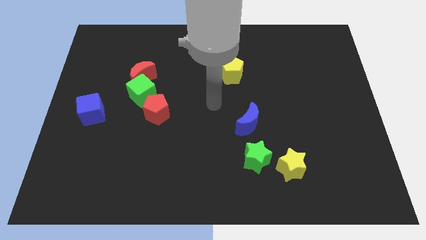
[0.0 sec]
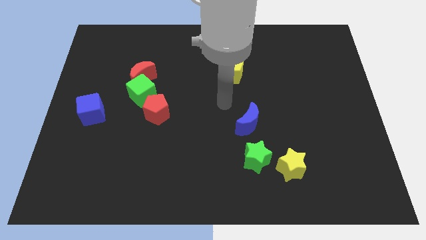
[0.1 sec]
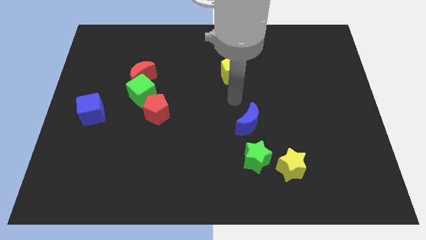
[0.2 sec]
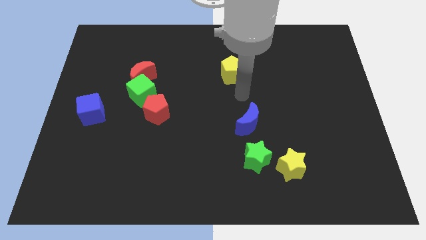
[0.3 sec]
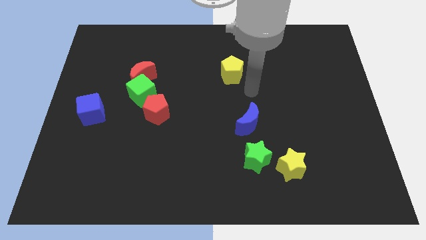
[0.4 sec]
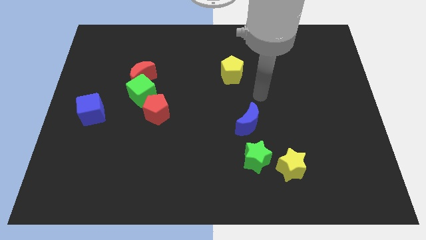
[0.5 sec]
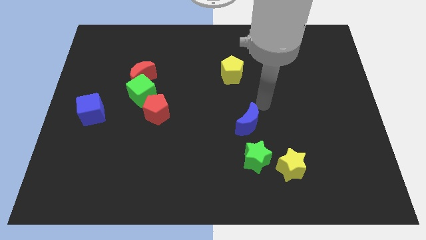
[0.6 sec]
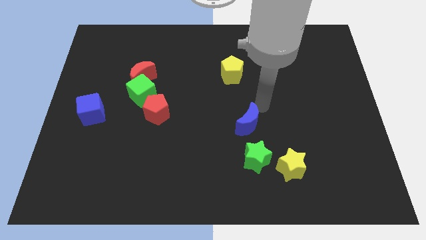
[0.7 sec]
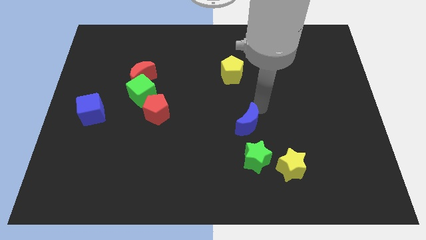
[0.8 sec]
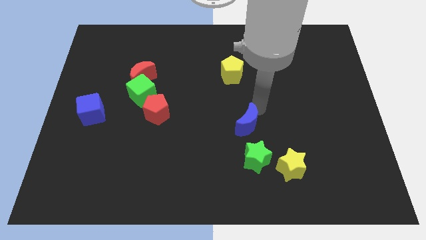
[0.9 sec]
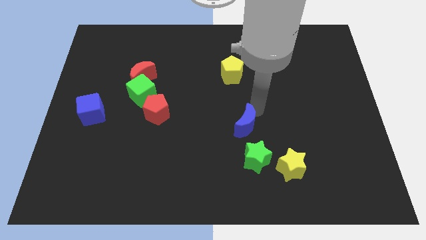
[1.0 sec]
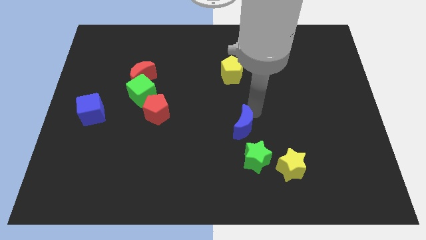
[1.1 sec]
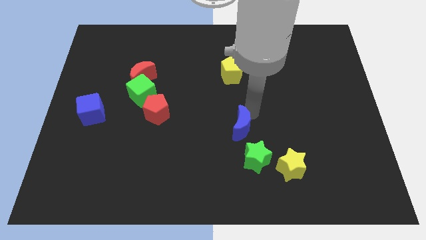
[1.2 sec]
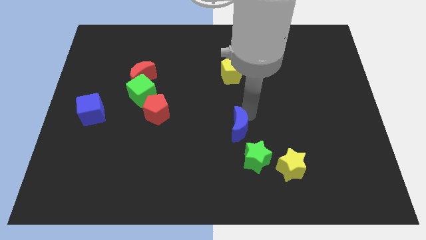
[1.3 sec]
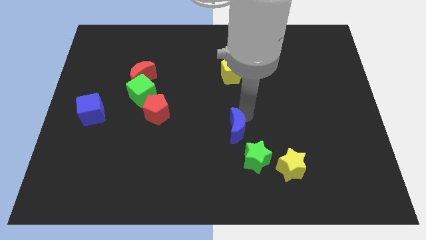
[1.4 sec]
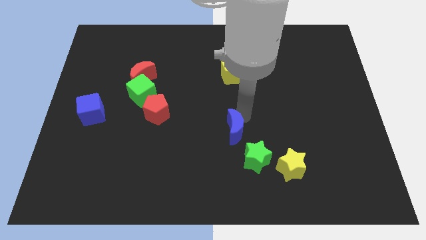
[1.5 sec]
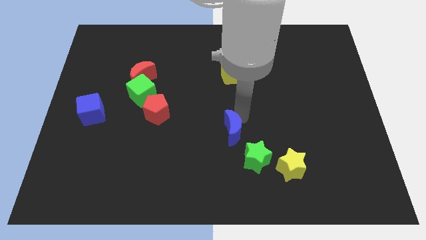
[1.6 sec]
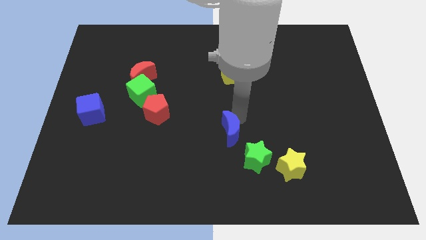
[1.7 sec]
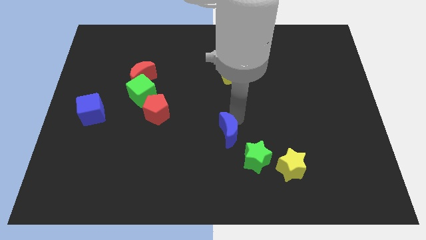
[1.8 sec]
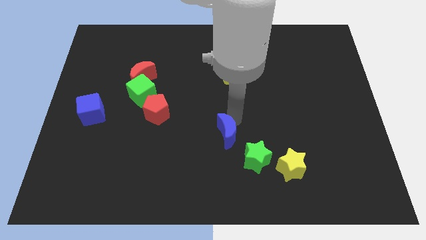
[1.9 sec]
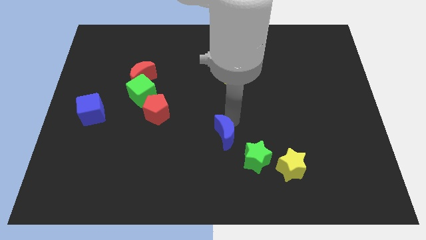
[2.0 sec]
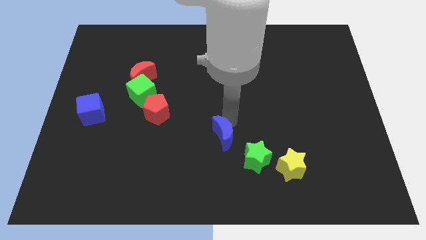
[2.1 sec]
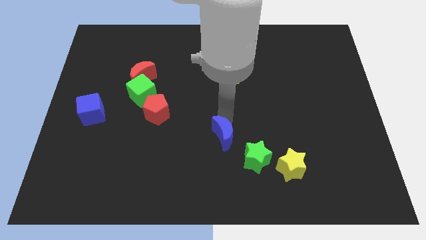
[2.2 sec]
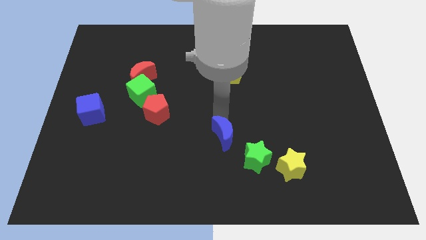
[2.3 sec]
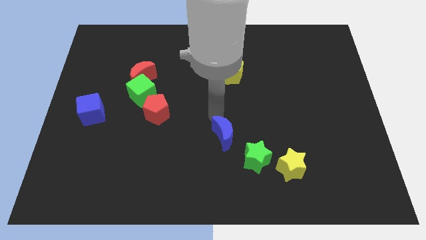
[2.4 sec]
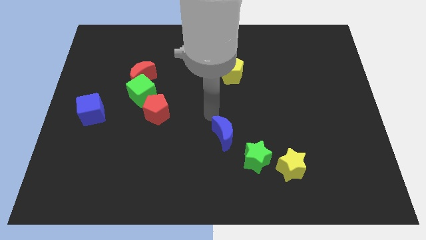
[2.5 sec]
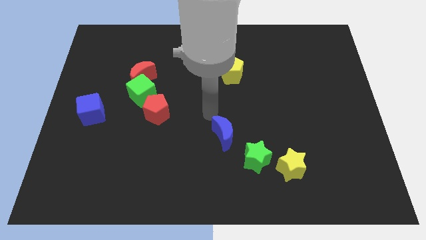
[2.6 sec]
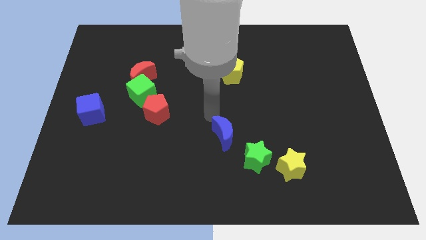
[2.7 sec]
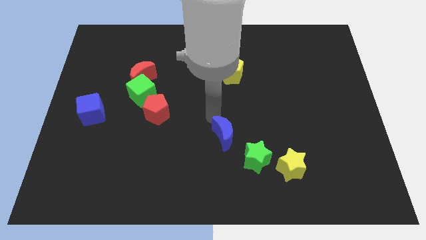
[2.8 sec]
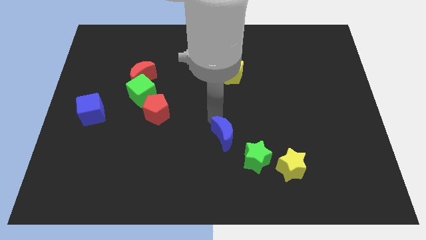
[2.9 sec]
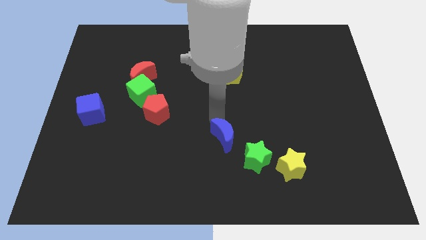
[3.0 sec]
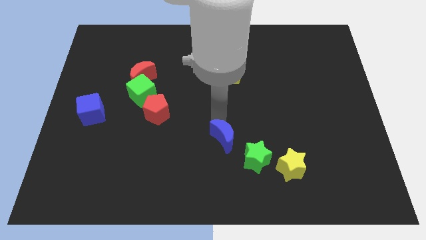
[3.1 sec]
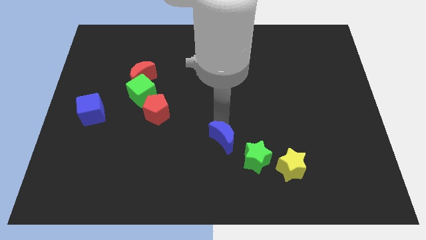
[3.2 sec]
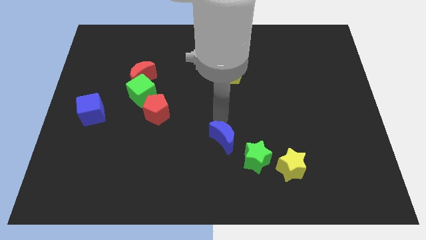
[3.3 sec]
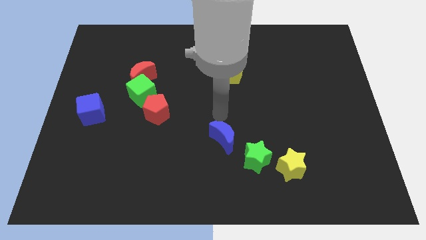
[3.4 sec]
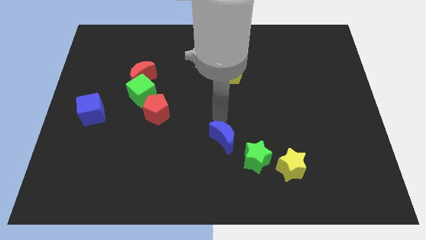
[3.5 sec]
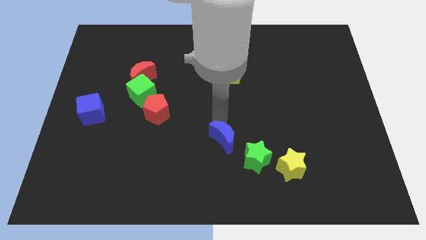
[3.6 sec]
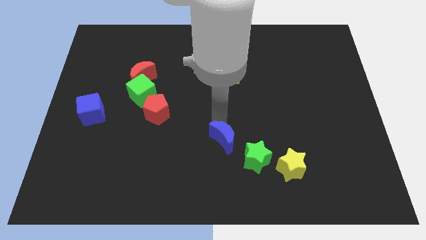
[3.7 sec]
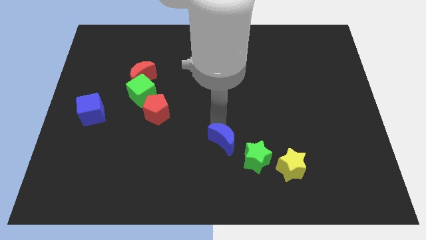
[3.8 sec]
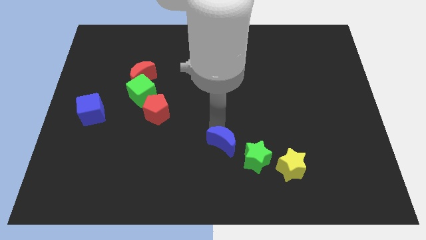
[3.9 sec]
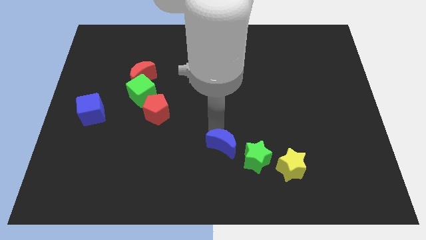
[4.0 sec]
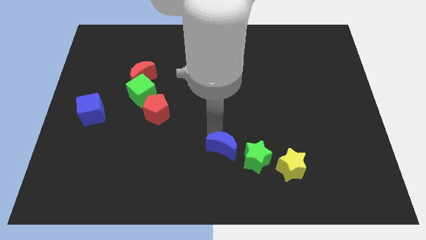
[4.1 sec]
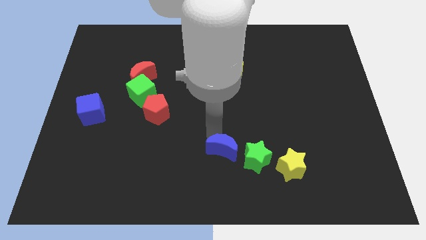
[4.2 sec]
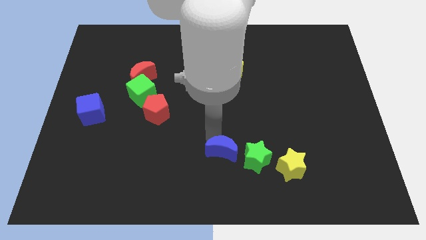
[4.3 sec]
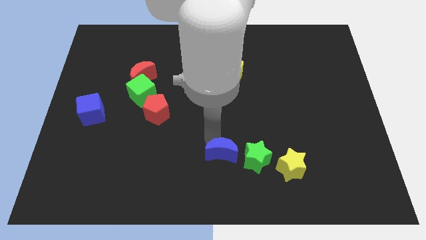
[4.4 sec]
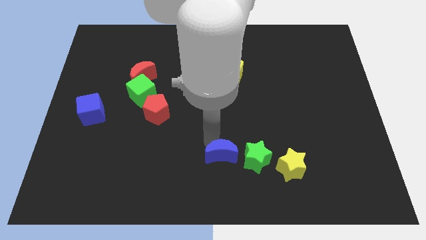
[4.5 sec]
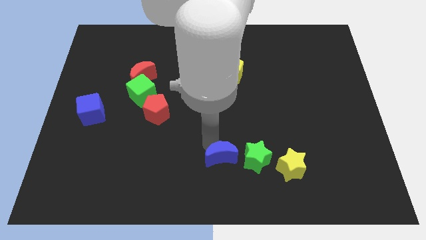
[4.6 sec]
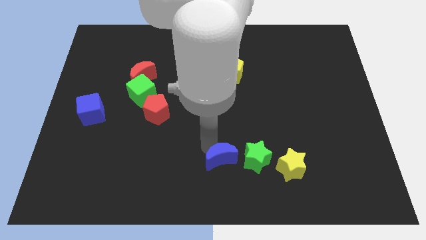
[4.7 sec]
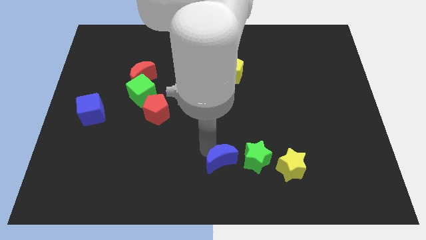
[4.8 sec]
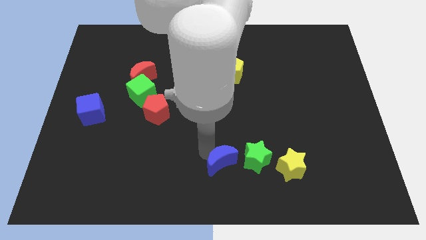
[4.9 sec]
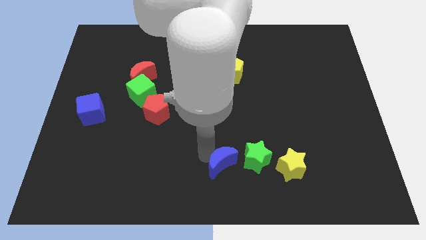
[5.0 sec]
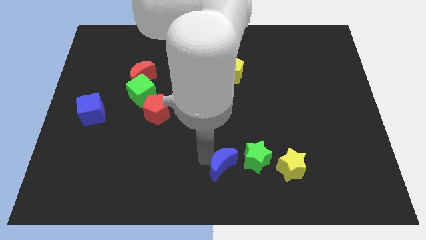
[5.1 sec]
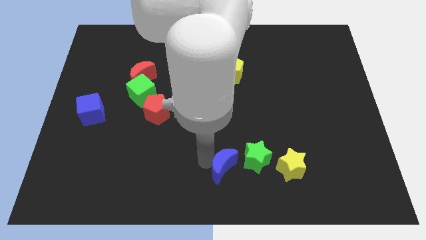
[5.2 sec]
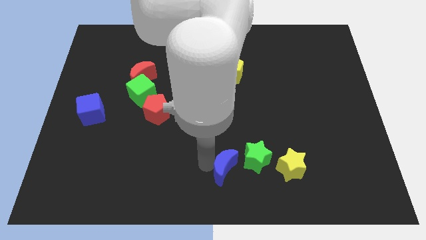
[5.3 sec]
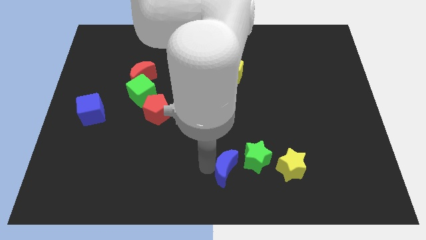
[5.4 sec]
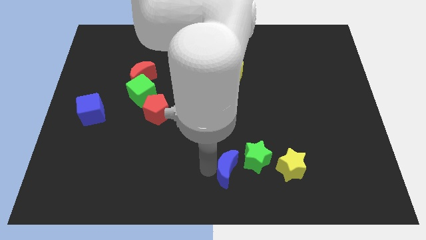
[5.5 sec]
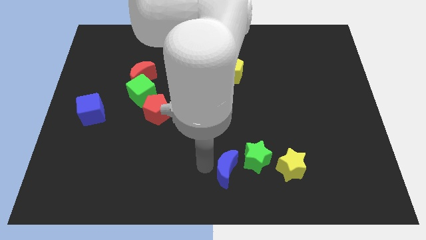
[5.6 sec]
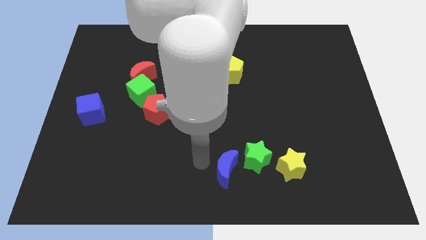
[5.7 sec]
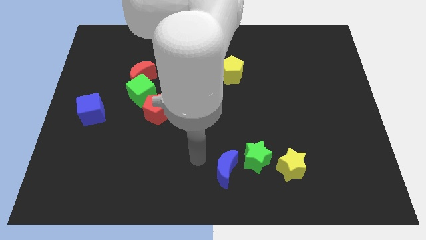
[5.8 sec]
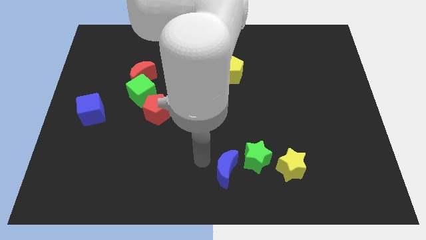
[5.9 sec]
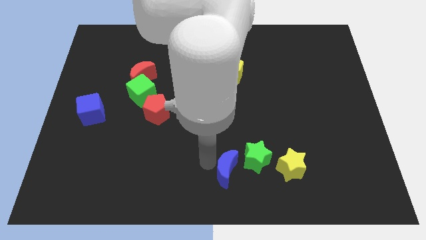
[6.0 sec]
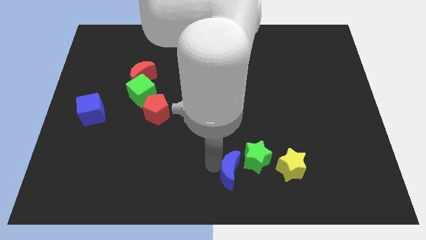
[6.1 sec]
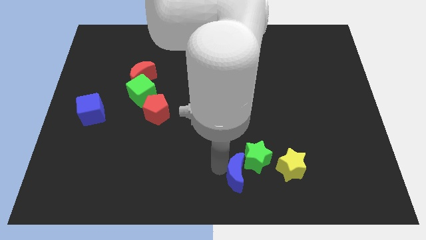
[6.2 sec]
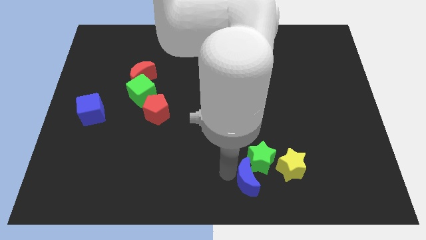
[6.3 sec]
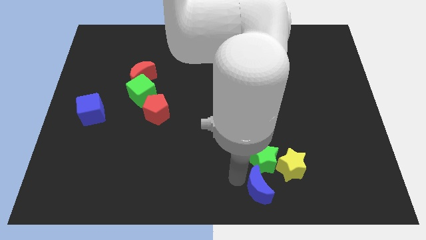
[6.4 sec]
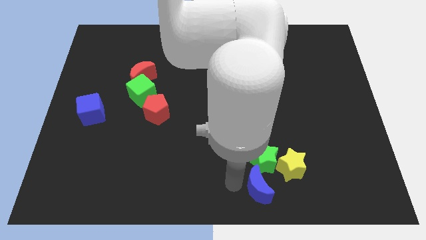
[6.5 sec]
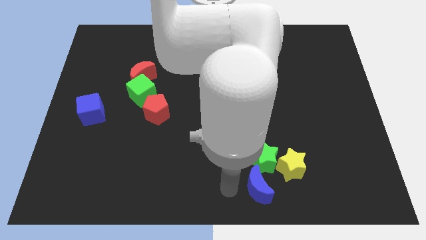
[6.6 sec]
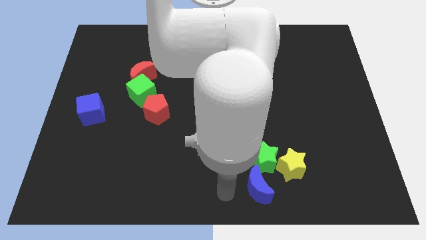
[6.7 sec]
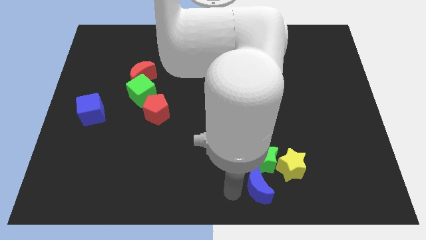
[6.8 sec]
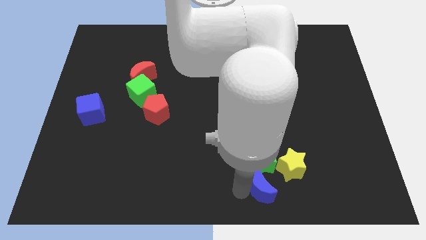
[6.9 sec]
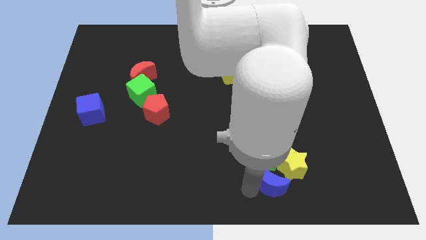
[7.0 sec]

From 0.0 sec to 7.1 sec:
push the blue moon to the bottom right of the green star
